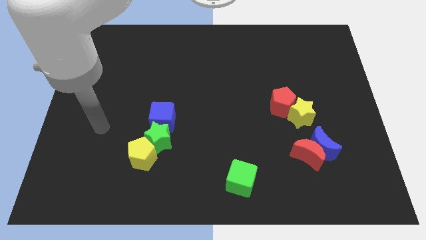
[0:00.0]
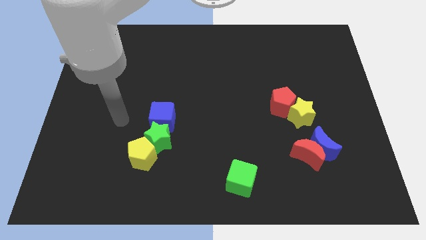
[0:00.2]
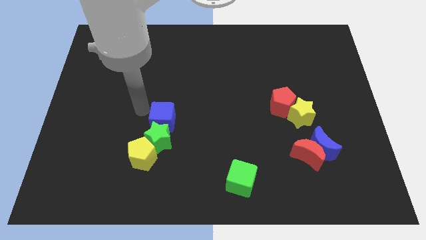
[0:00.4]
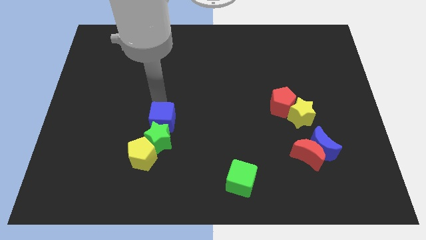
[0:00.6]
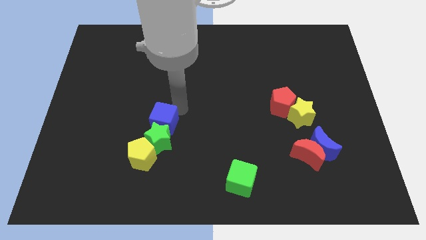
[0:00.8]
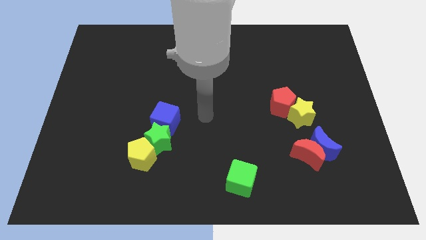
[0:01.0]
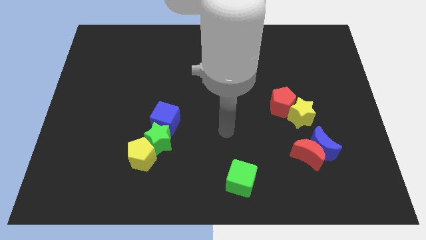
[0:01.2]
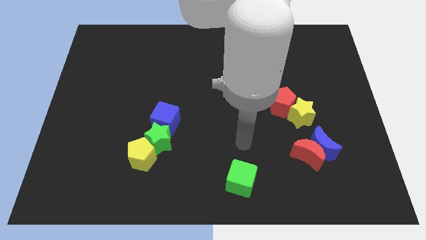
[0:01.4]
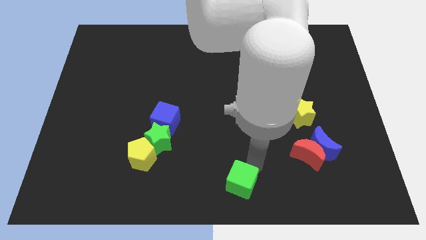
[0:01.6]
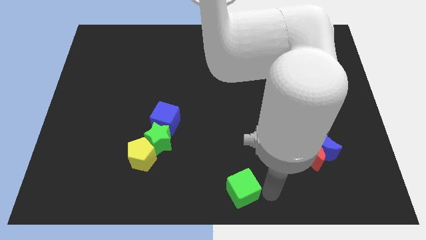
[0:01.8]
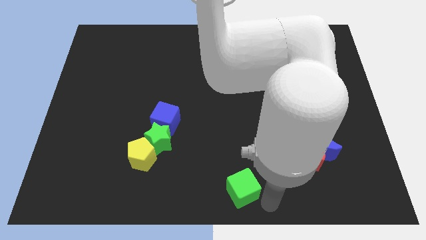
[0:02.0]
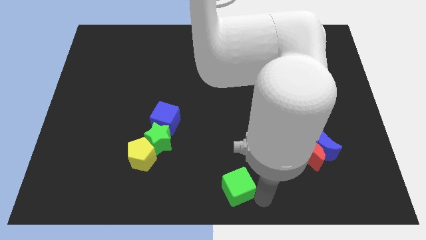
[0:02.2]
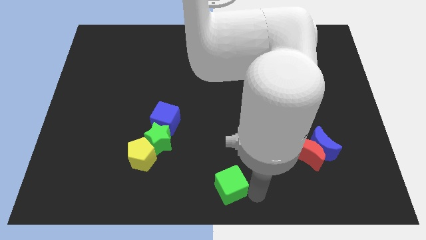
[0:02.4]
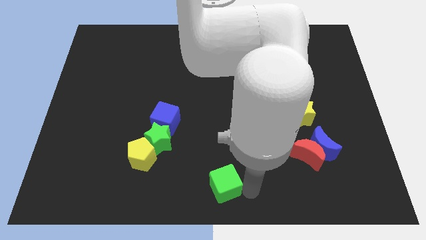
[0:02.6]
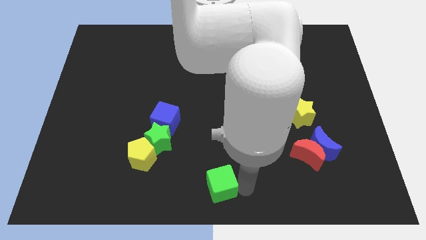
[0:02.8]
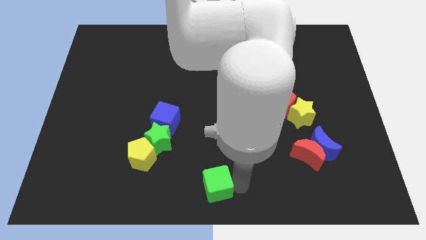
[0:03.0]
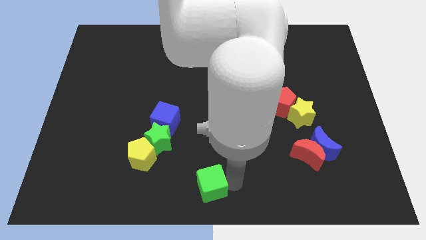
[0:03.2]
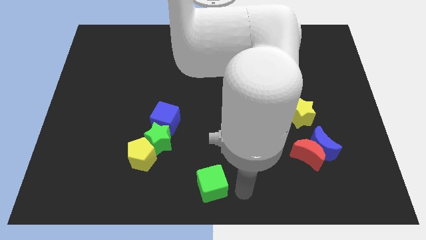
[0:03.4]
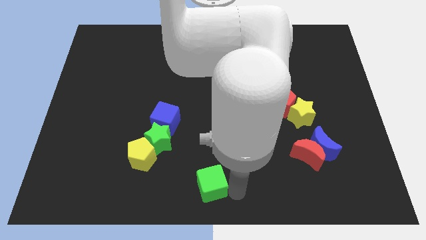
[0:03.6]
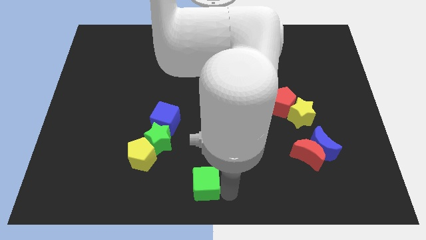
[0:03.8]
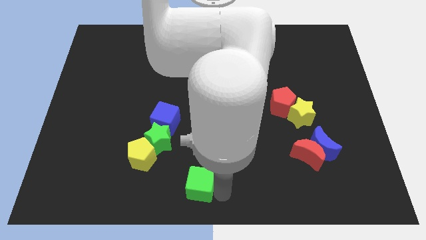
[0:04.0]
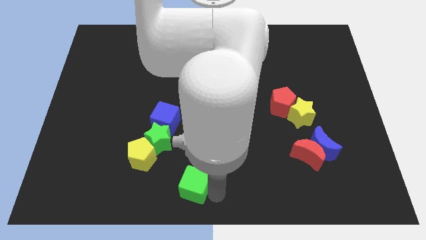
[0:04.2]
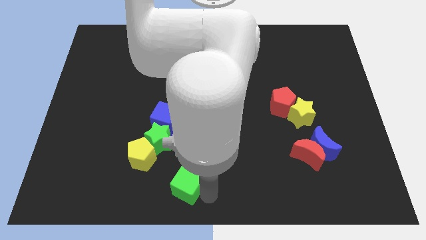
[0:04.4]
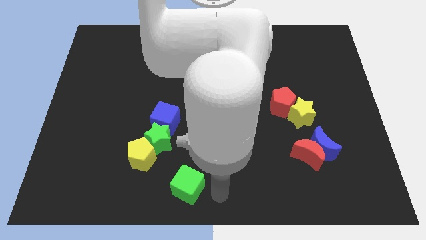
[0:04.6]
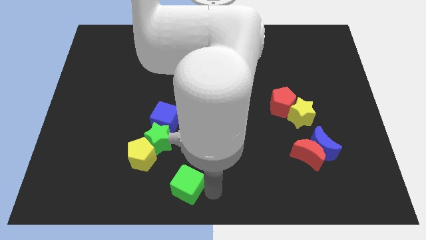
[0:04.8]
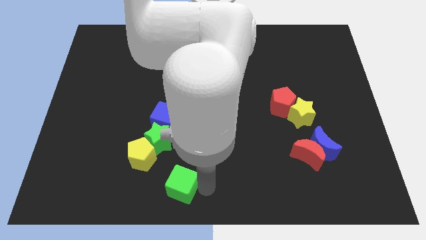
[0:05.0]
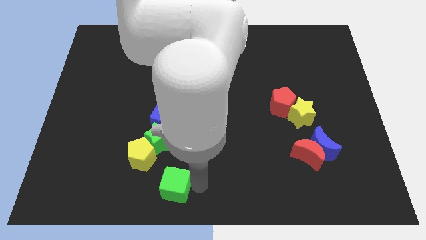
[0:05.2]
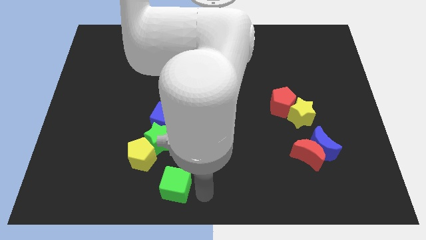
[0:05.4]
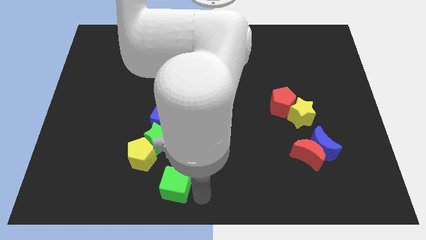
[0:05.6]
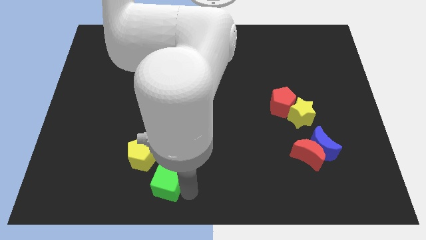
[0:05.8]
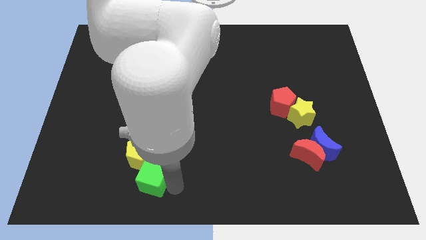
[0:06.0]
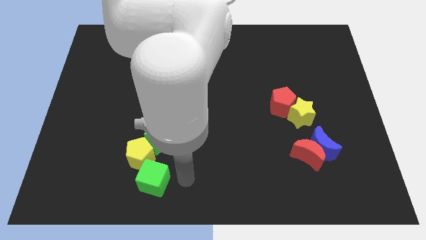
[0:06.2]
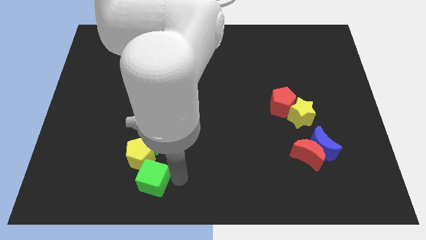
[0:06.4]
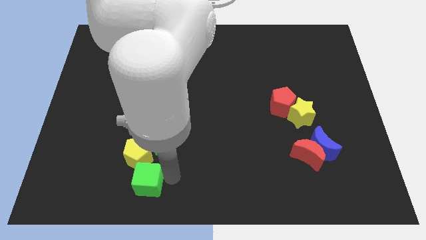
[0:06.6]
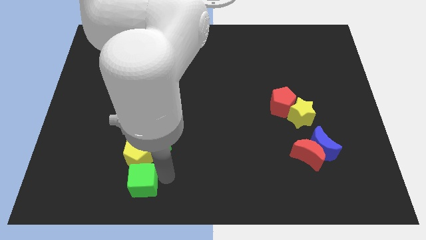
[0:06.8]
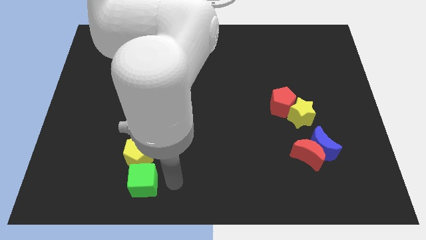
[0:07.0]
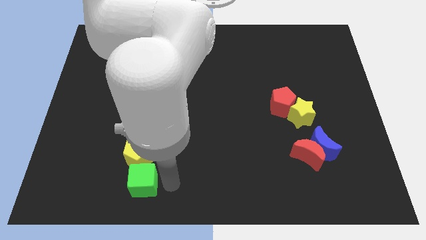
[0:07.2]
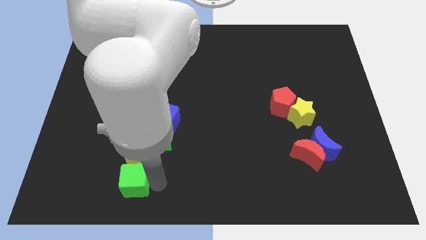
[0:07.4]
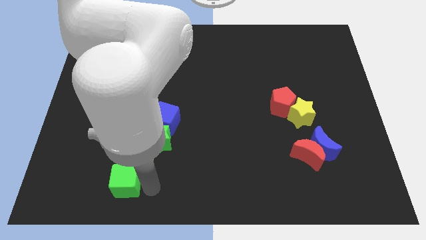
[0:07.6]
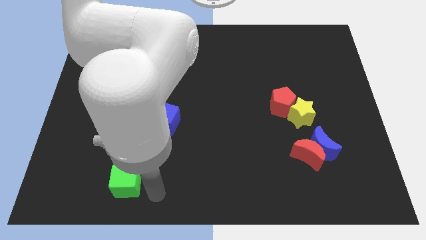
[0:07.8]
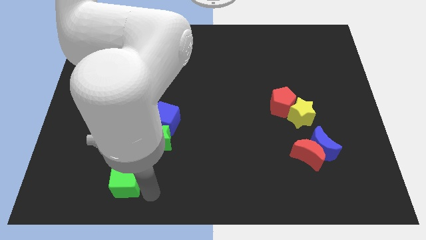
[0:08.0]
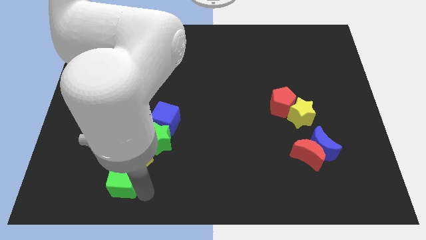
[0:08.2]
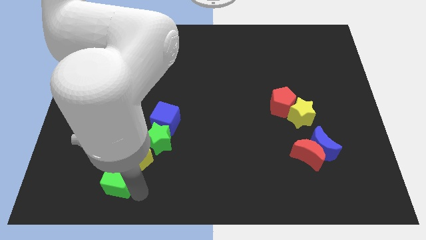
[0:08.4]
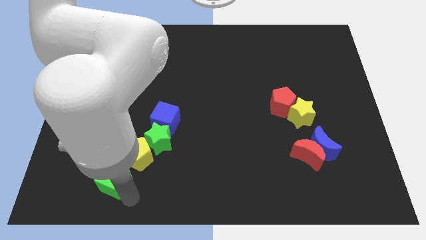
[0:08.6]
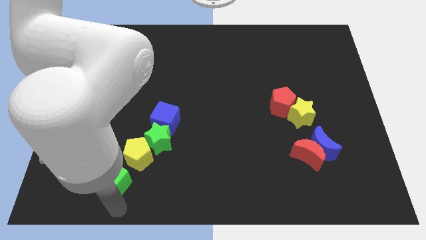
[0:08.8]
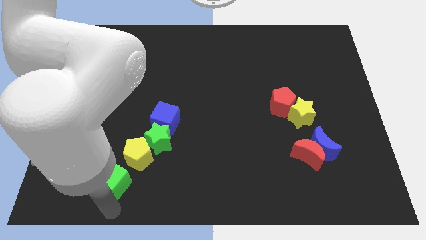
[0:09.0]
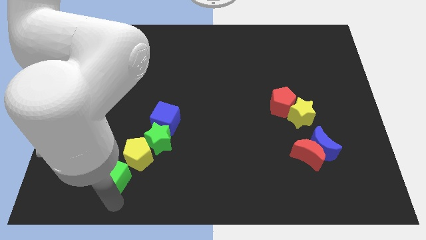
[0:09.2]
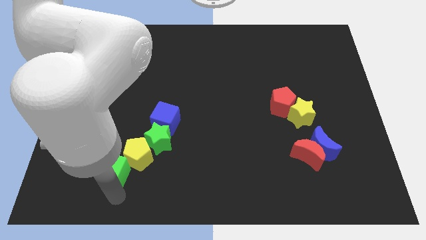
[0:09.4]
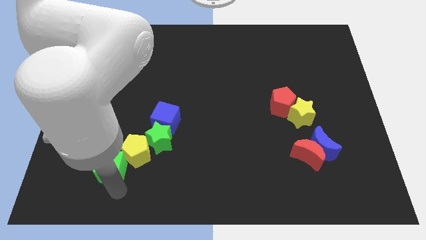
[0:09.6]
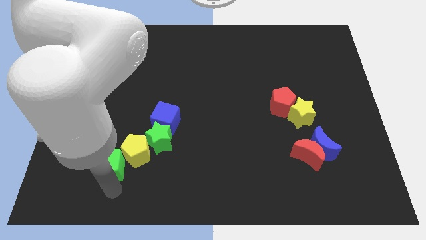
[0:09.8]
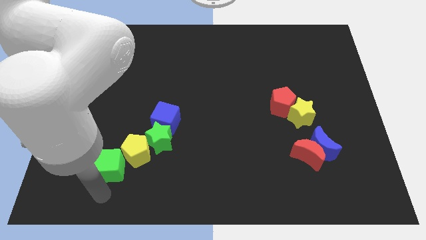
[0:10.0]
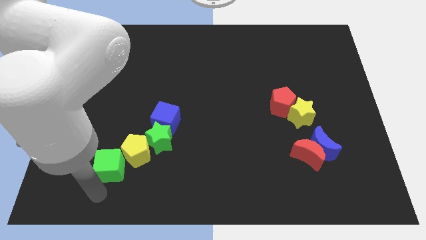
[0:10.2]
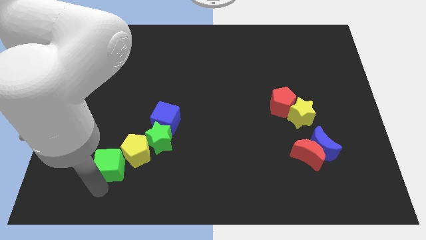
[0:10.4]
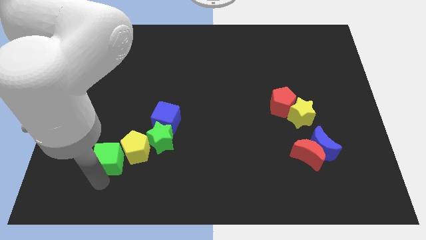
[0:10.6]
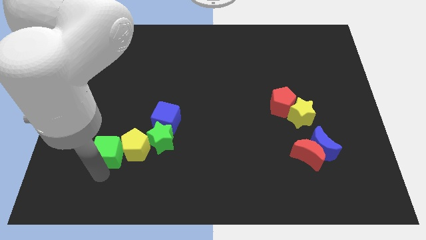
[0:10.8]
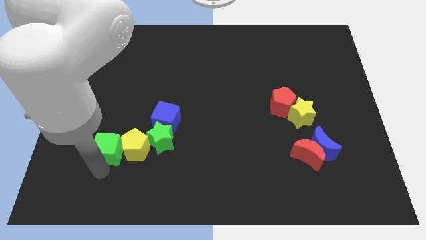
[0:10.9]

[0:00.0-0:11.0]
push the green cube to the top left of the yellow pentagon

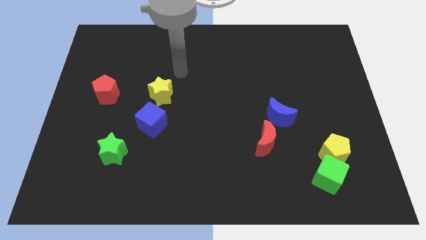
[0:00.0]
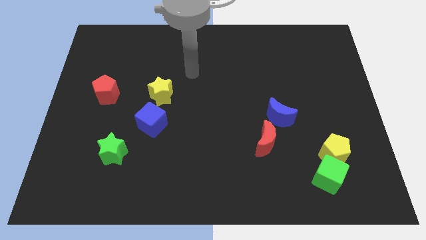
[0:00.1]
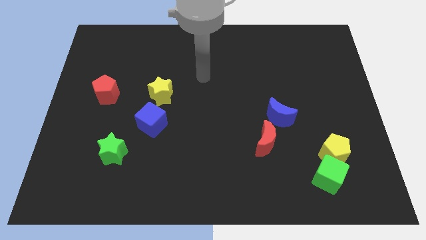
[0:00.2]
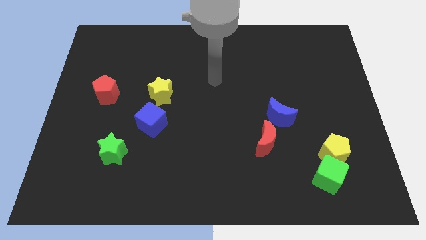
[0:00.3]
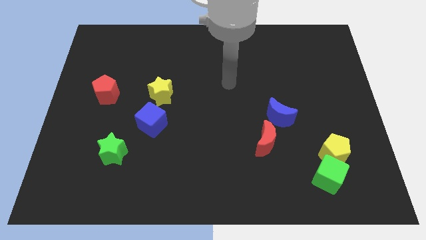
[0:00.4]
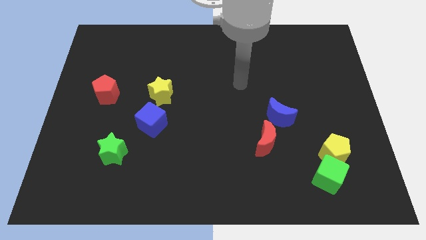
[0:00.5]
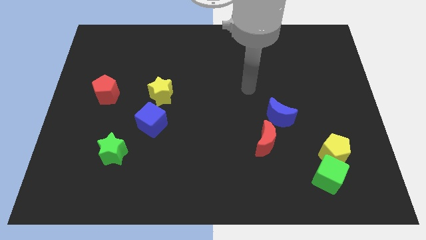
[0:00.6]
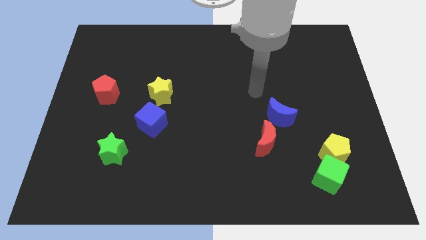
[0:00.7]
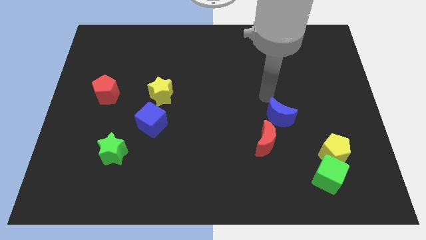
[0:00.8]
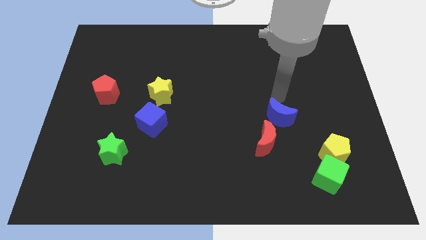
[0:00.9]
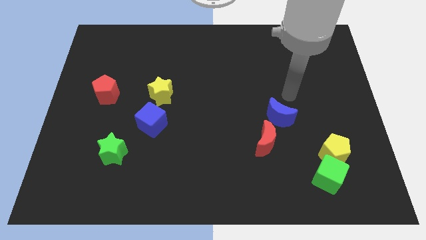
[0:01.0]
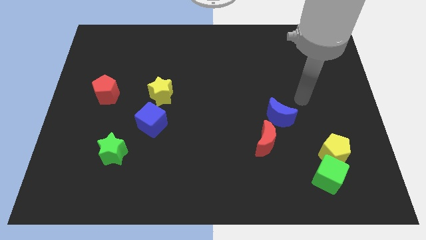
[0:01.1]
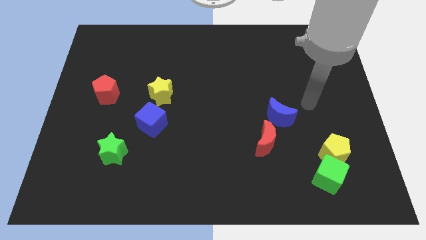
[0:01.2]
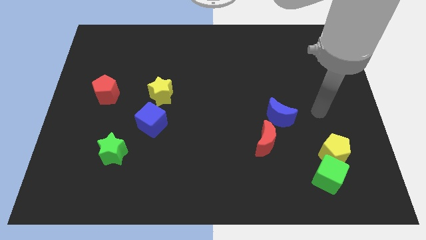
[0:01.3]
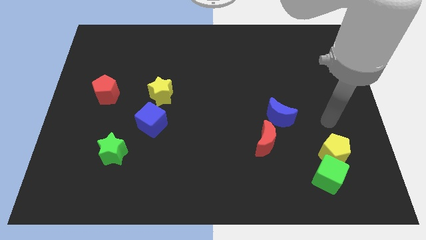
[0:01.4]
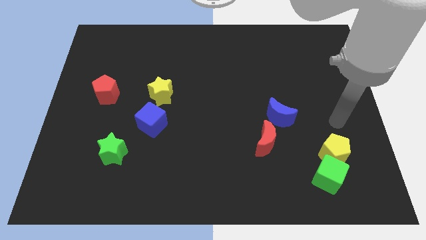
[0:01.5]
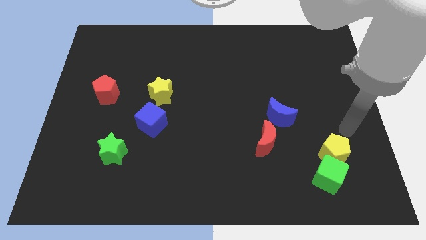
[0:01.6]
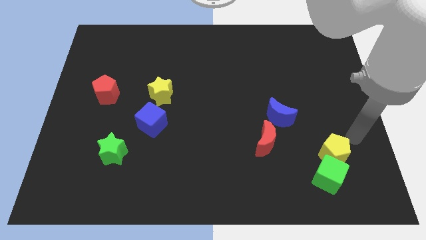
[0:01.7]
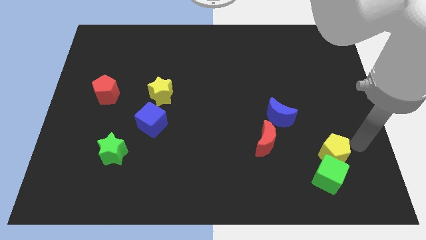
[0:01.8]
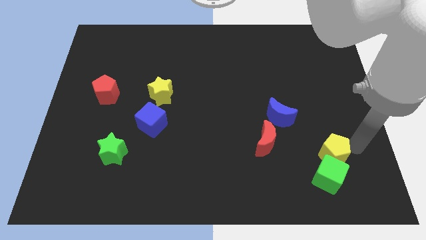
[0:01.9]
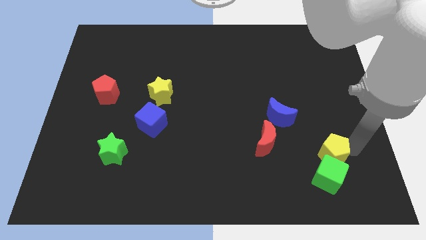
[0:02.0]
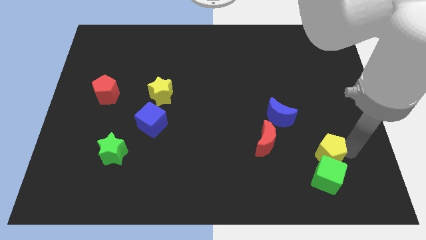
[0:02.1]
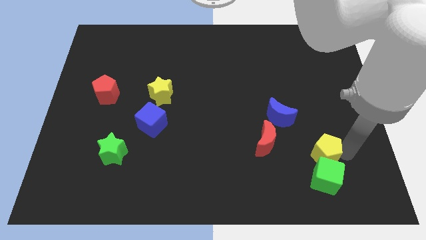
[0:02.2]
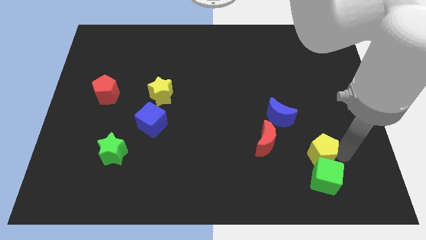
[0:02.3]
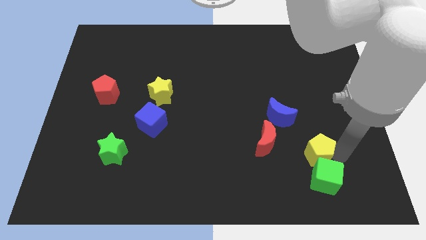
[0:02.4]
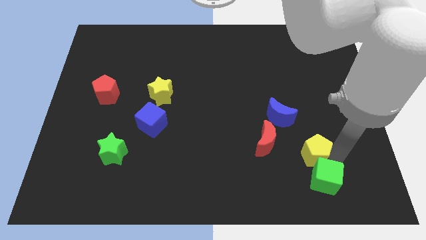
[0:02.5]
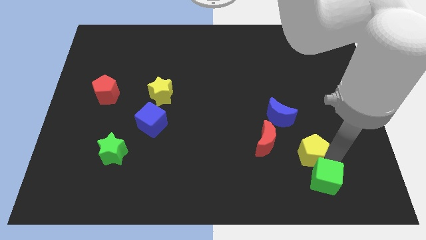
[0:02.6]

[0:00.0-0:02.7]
put the yellow pentagon diagonally down and to the right of the red moon
